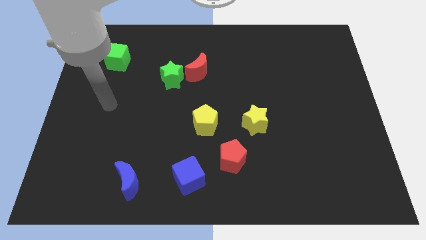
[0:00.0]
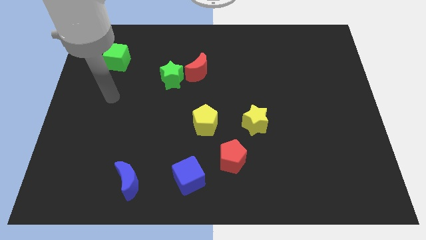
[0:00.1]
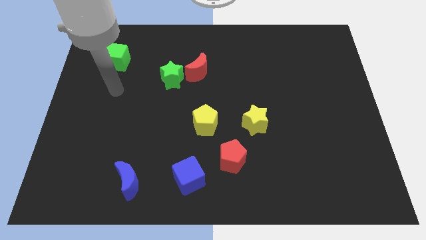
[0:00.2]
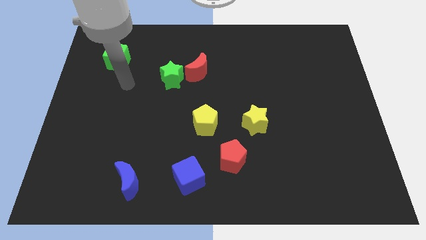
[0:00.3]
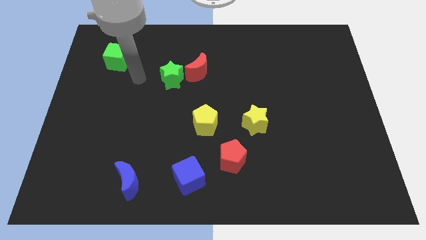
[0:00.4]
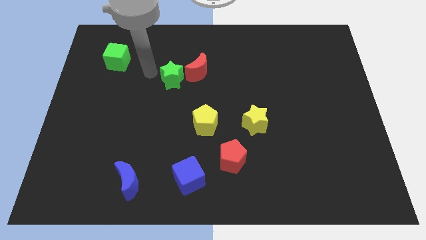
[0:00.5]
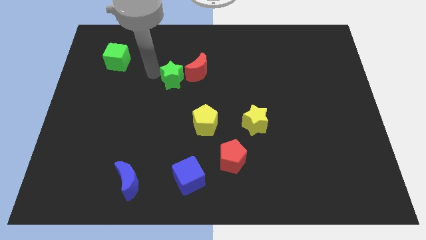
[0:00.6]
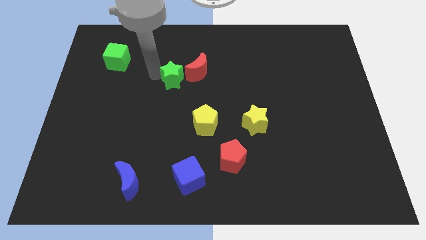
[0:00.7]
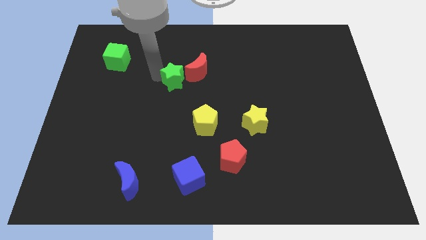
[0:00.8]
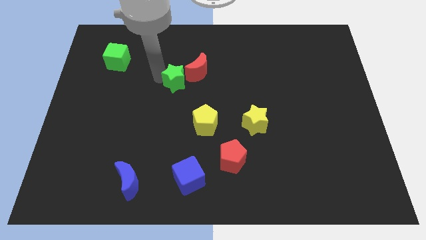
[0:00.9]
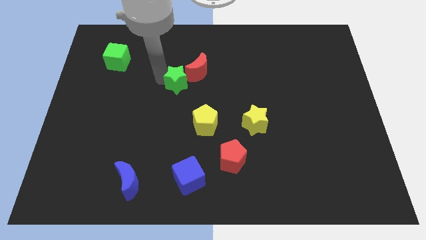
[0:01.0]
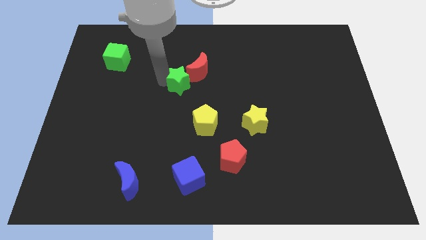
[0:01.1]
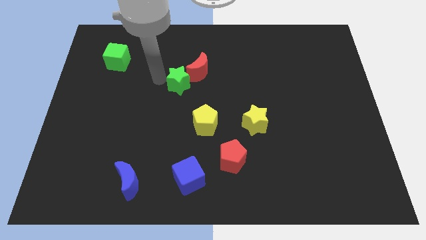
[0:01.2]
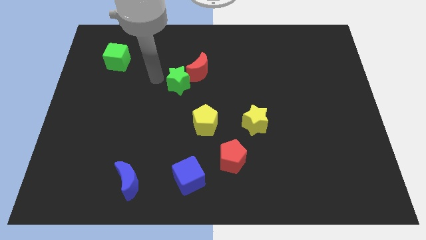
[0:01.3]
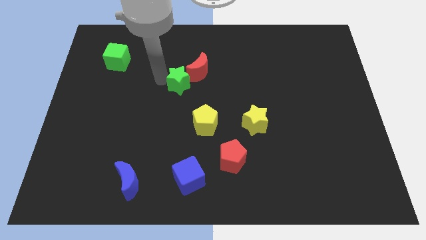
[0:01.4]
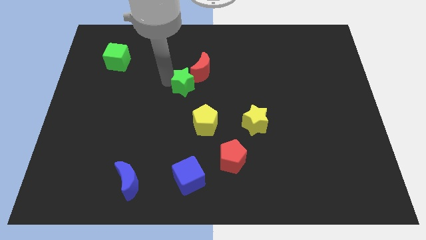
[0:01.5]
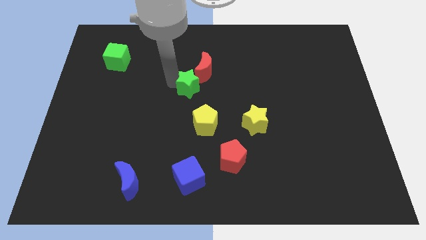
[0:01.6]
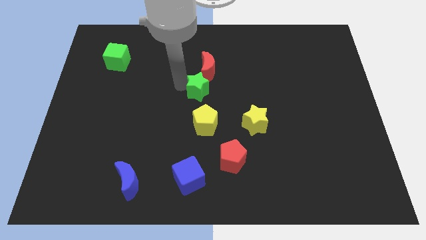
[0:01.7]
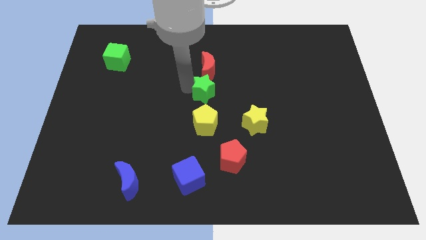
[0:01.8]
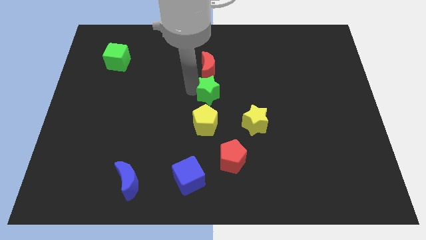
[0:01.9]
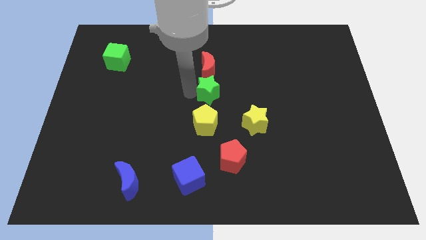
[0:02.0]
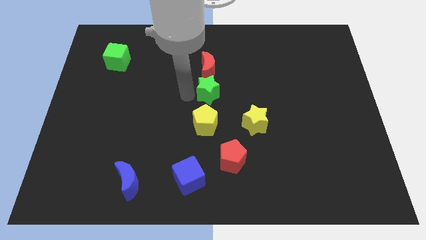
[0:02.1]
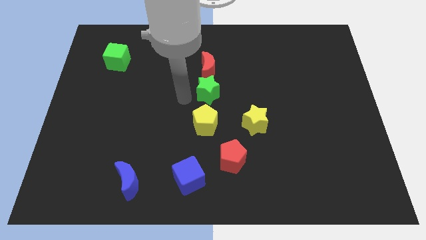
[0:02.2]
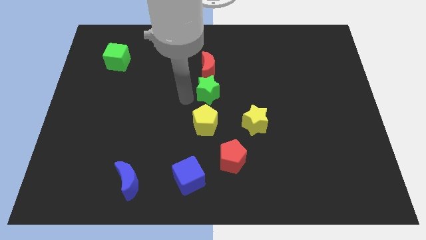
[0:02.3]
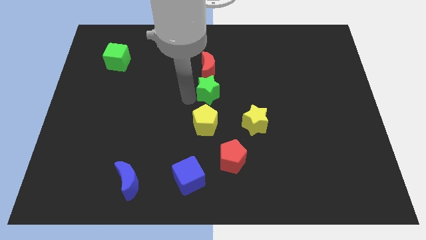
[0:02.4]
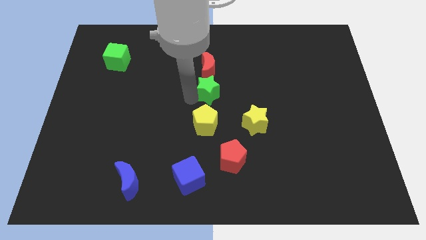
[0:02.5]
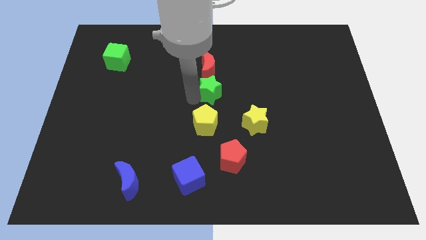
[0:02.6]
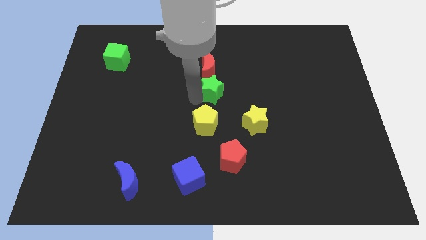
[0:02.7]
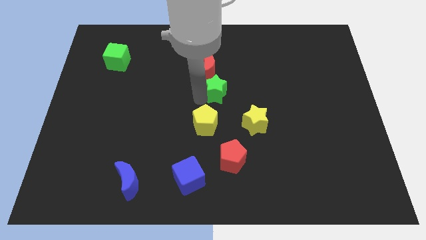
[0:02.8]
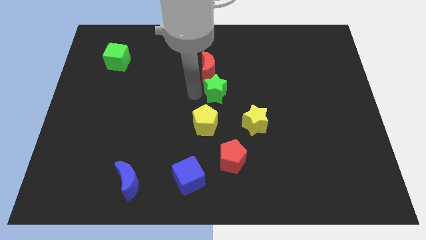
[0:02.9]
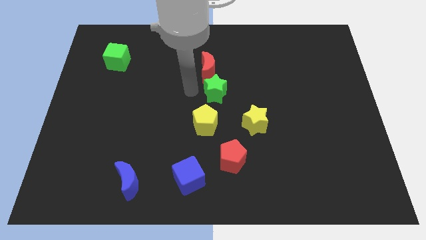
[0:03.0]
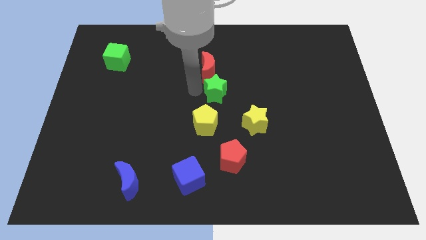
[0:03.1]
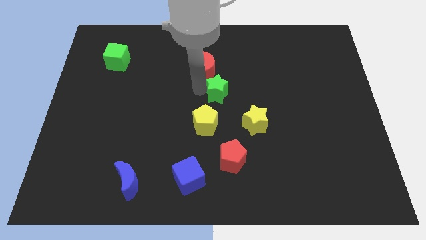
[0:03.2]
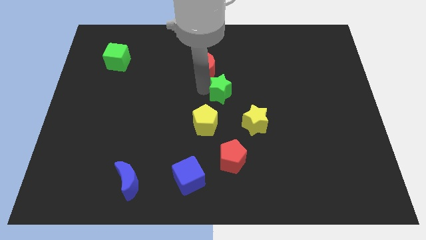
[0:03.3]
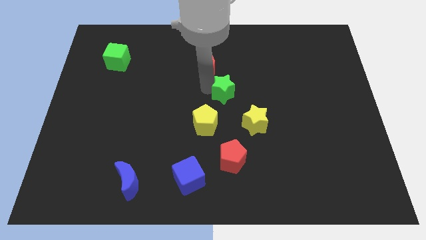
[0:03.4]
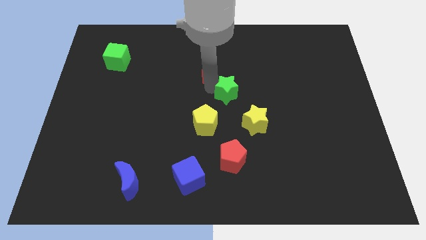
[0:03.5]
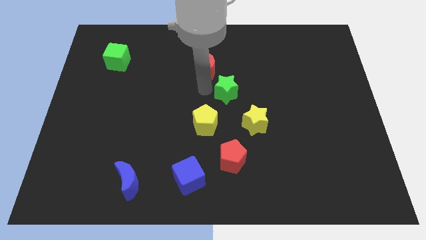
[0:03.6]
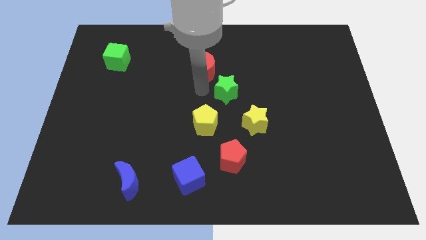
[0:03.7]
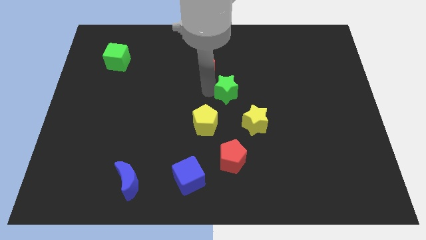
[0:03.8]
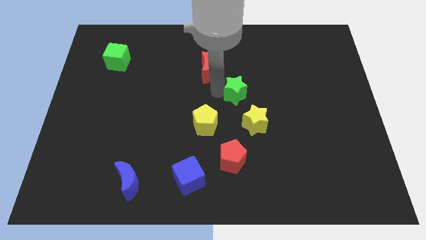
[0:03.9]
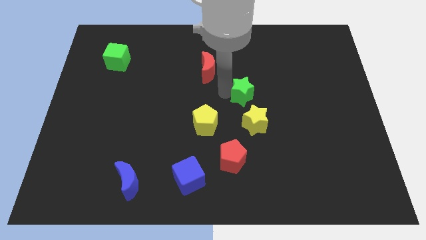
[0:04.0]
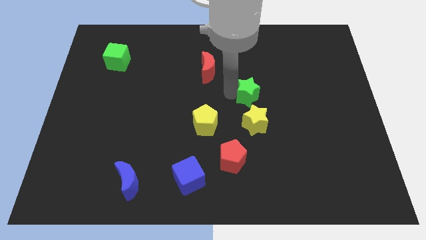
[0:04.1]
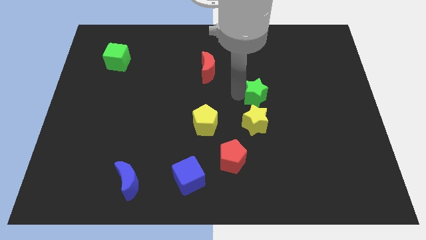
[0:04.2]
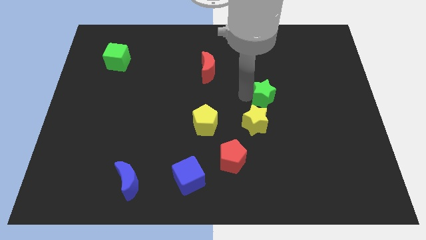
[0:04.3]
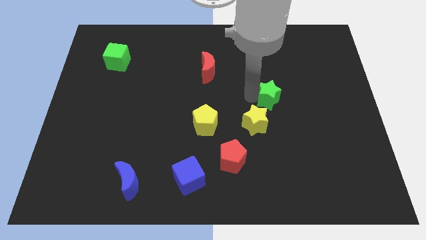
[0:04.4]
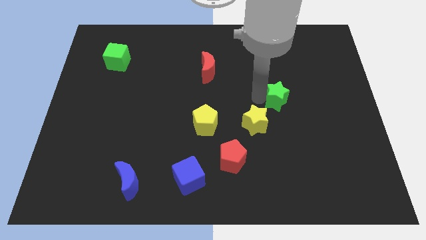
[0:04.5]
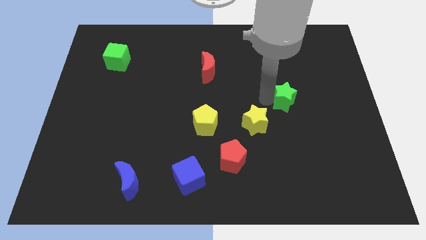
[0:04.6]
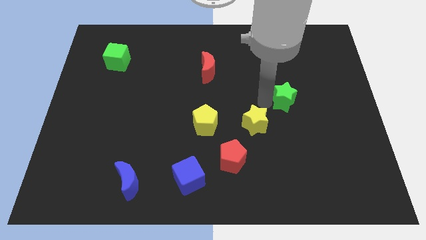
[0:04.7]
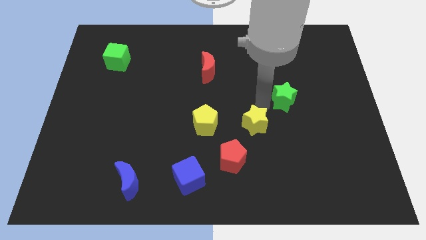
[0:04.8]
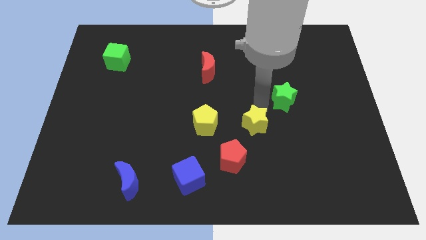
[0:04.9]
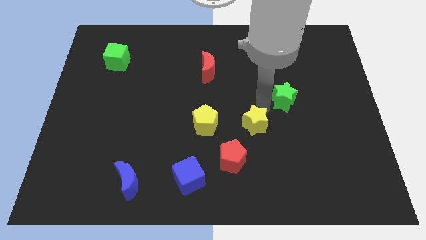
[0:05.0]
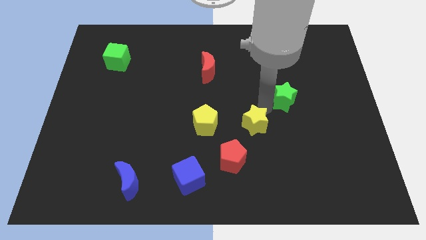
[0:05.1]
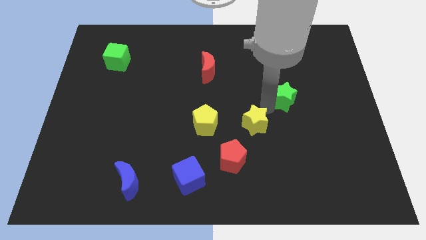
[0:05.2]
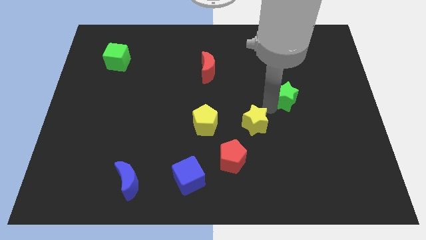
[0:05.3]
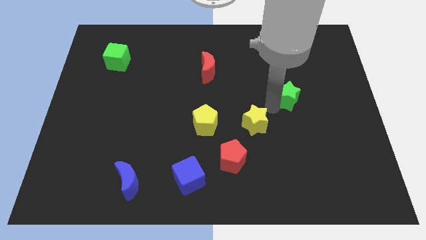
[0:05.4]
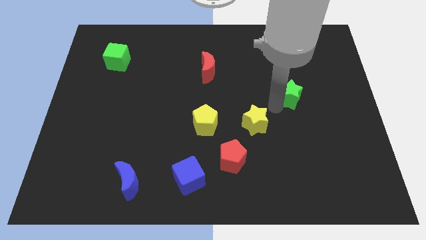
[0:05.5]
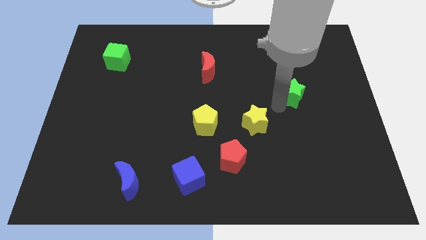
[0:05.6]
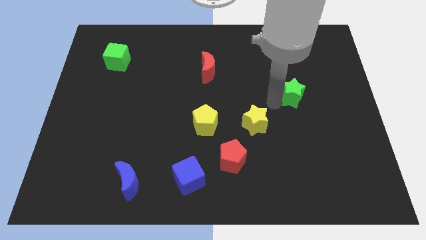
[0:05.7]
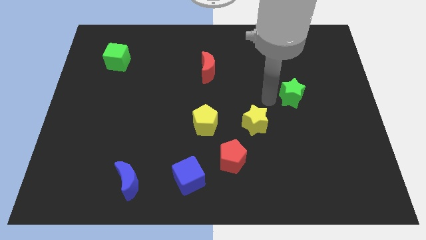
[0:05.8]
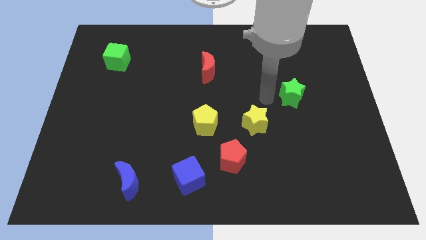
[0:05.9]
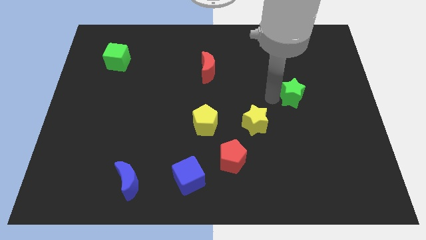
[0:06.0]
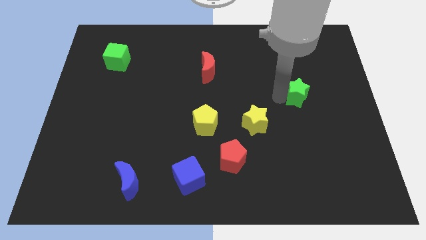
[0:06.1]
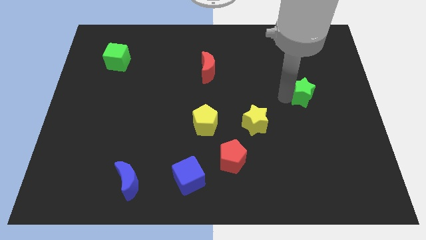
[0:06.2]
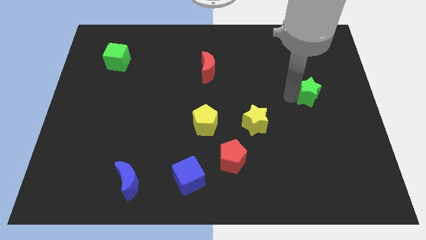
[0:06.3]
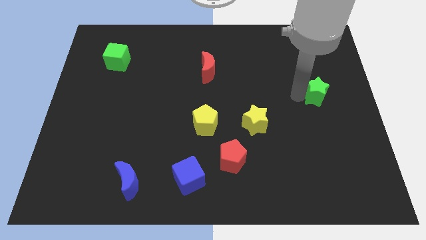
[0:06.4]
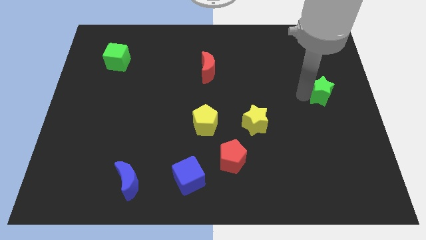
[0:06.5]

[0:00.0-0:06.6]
slide the green star to the right side
